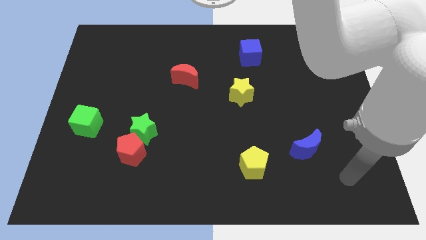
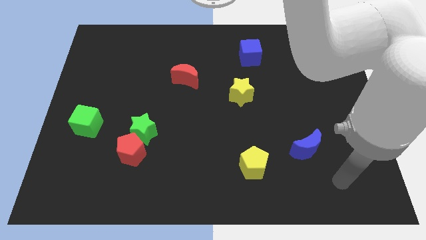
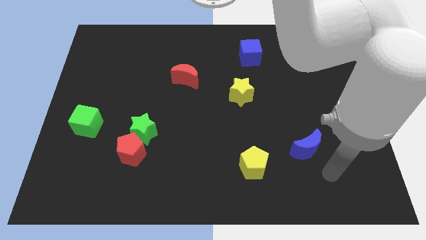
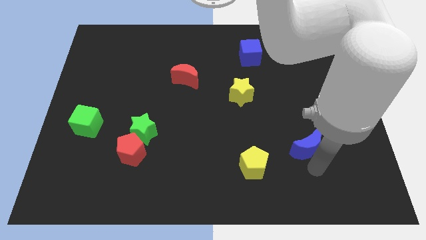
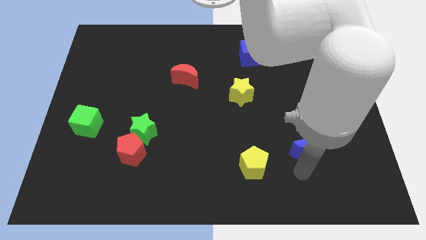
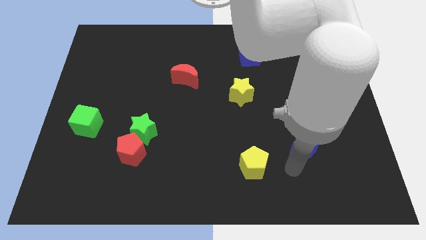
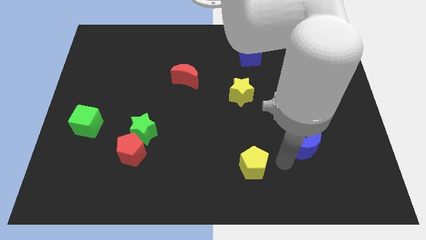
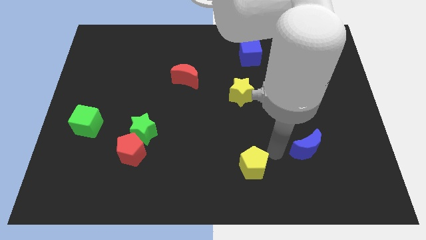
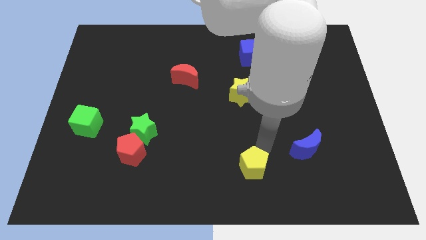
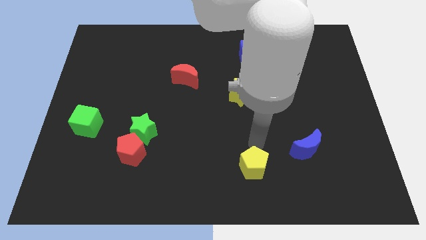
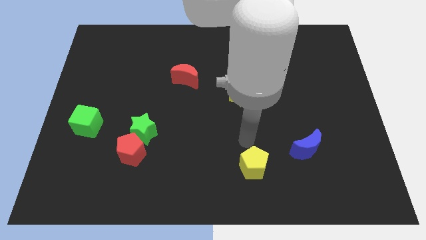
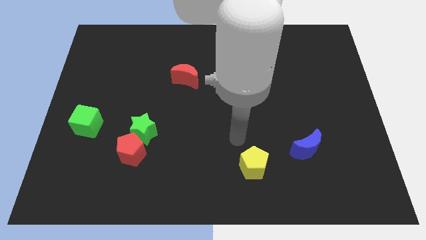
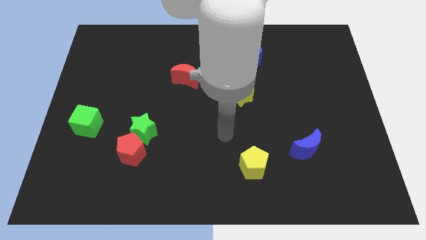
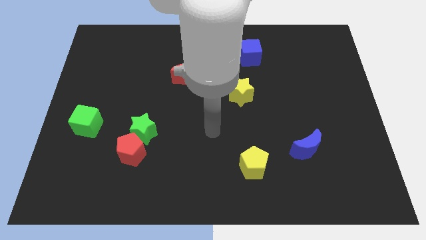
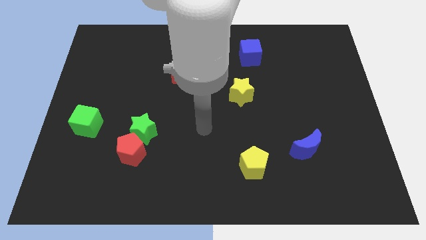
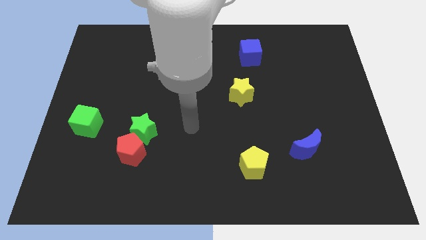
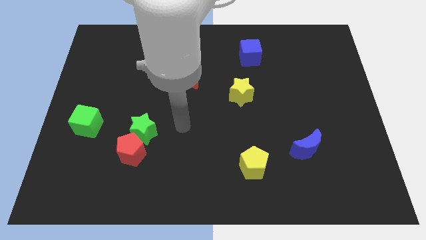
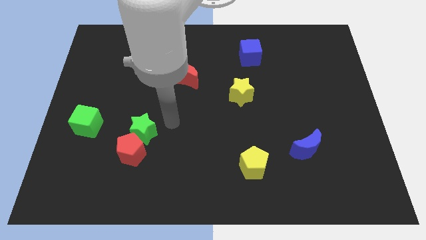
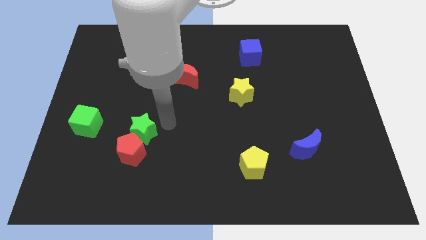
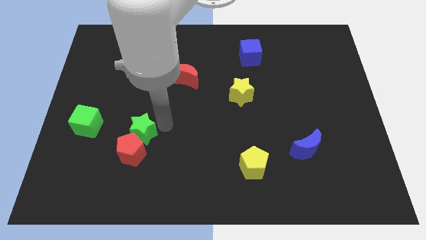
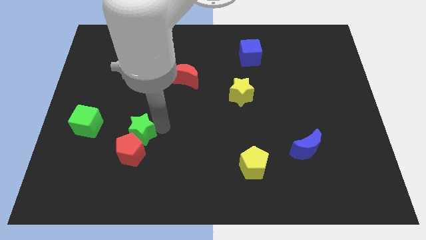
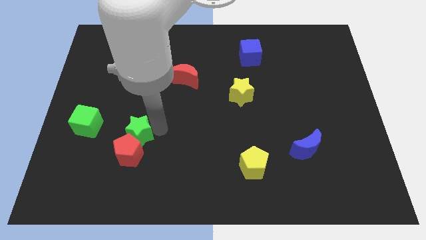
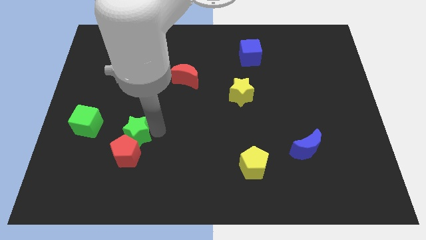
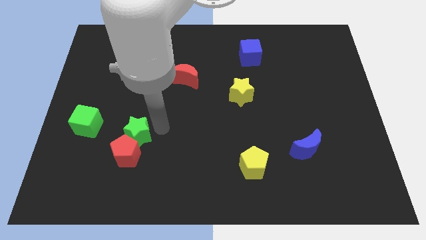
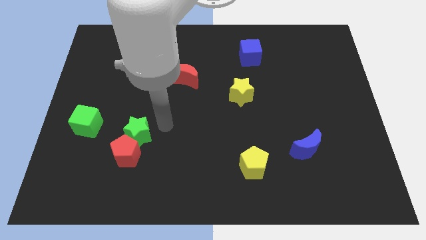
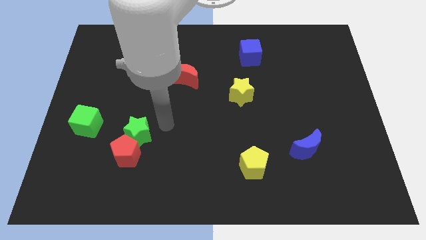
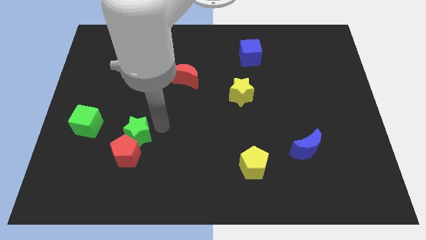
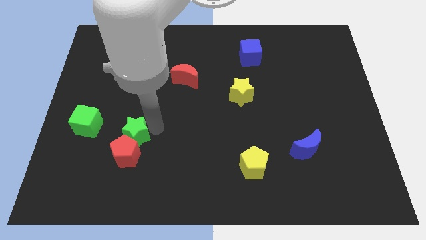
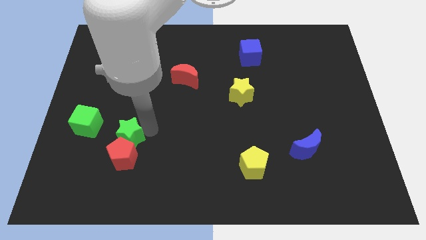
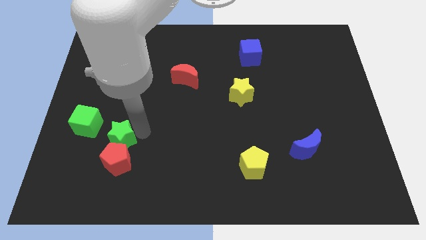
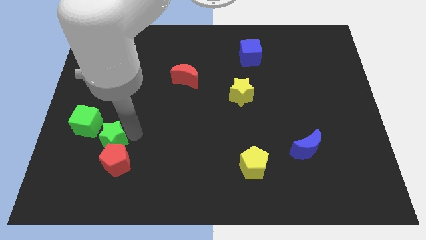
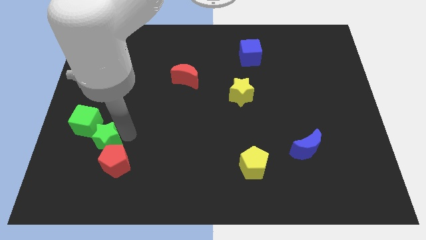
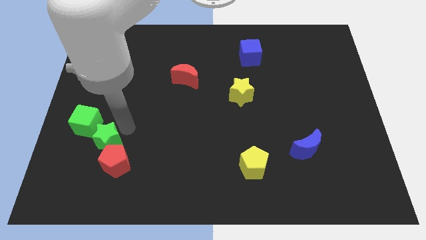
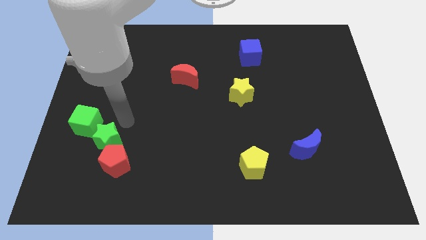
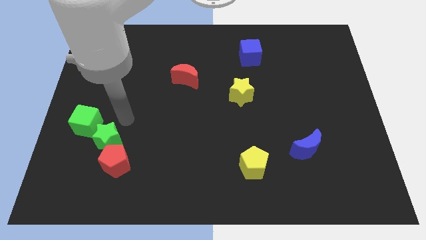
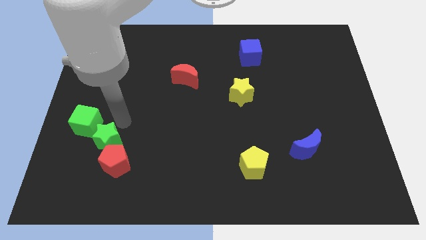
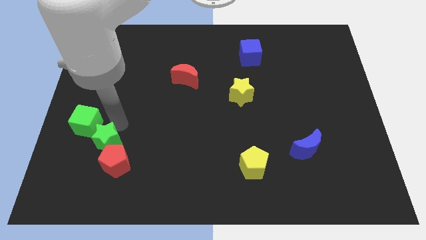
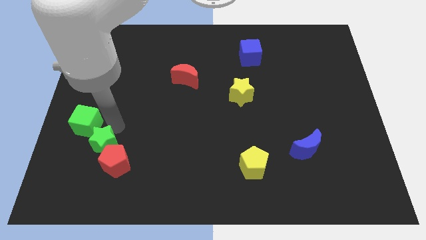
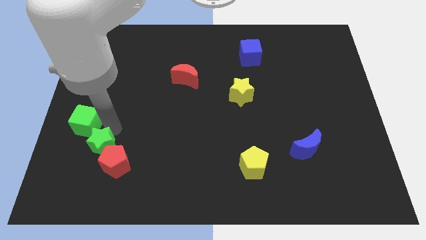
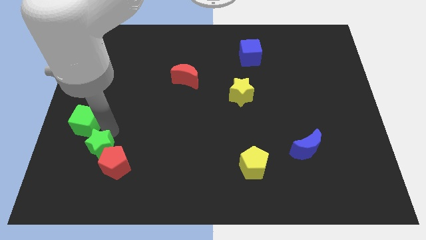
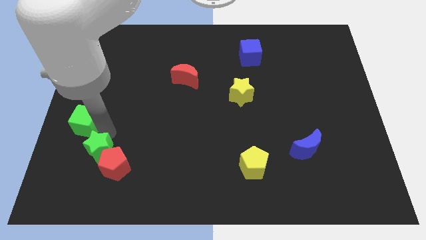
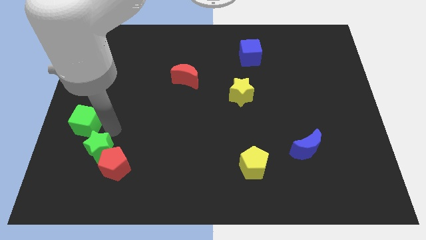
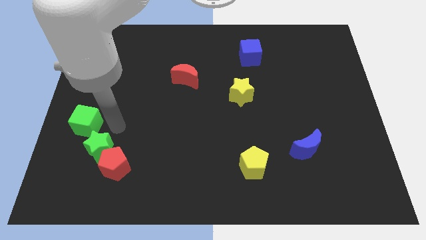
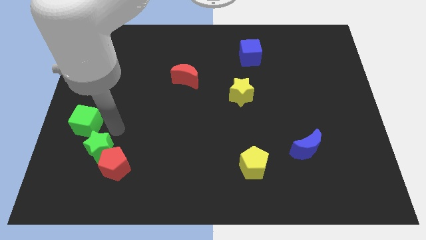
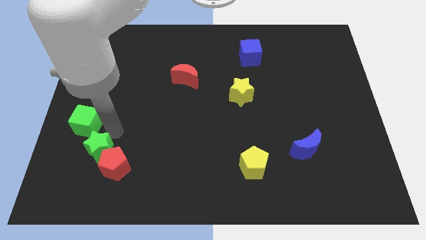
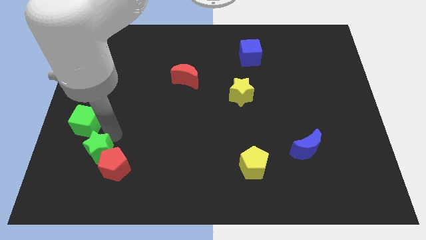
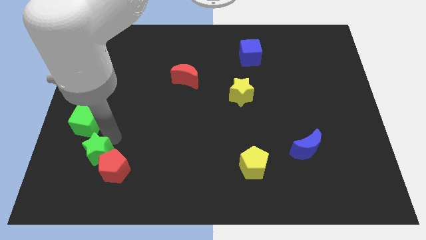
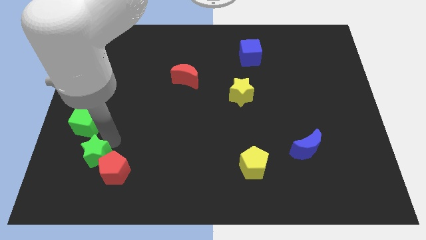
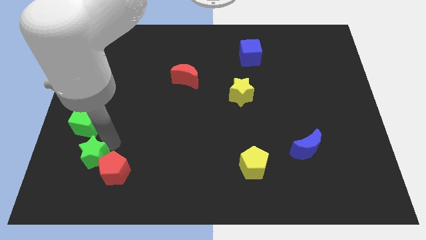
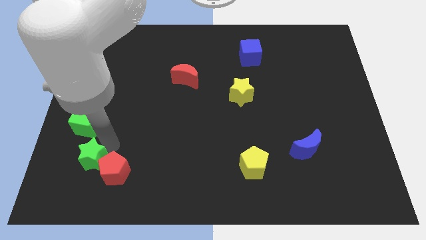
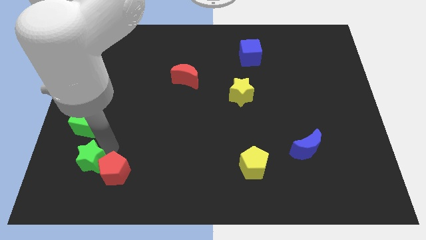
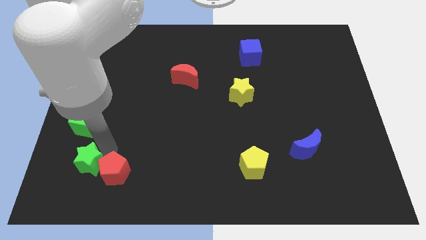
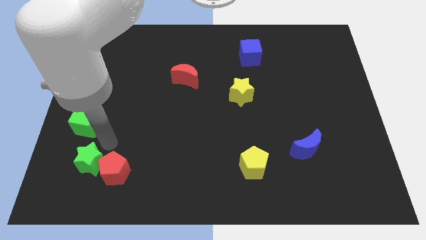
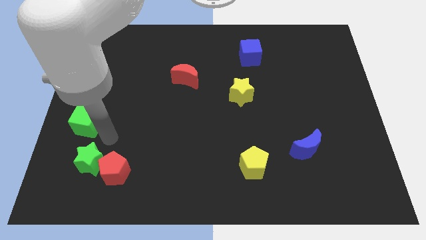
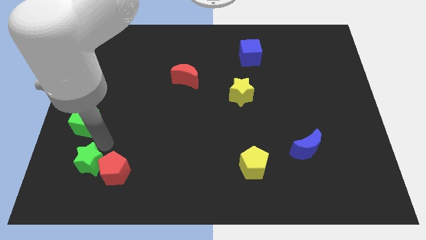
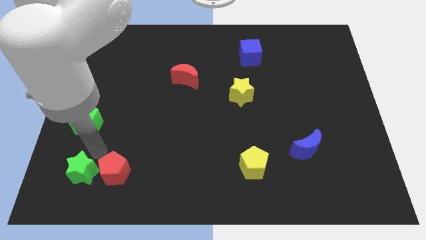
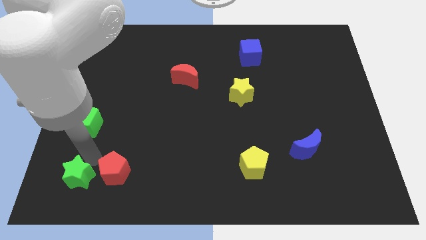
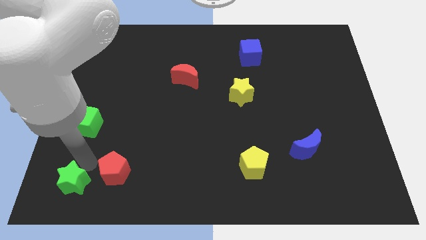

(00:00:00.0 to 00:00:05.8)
push the green star to the lower left corner

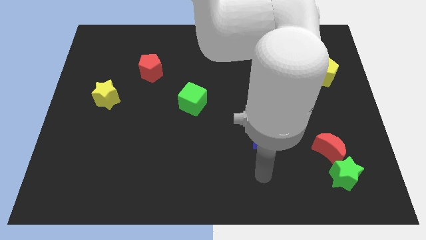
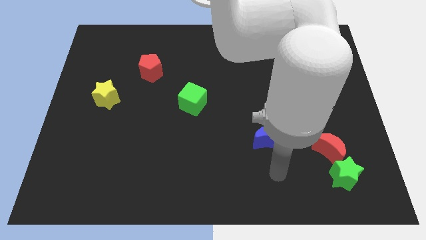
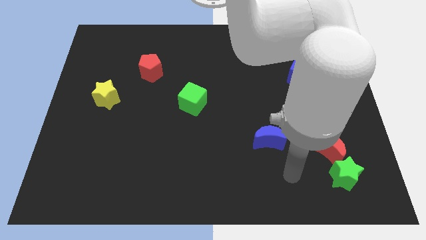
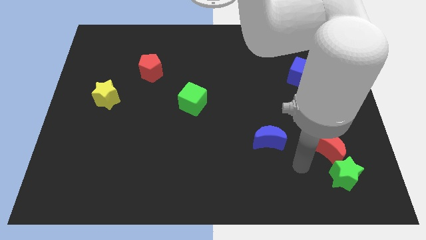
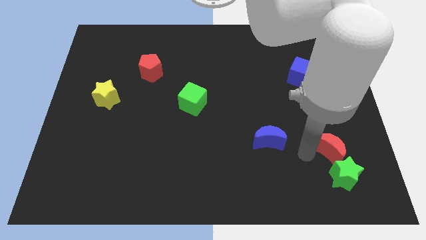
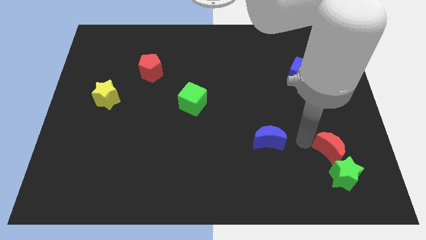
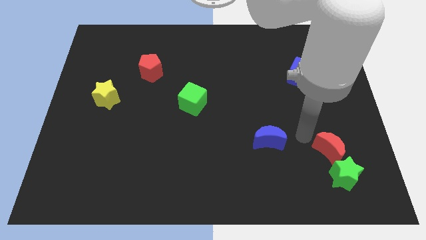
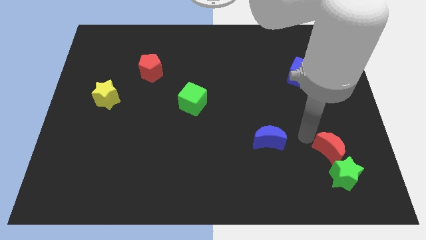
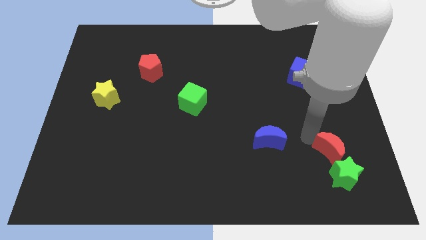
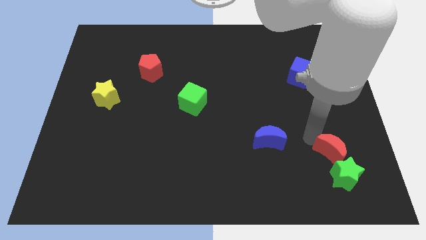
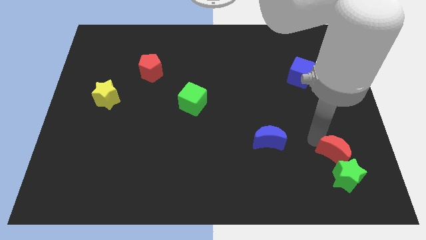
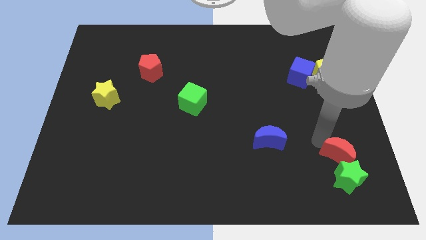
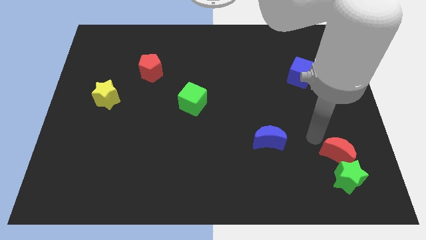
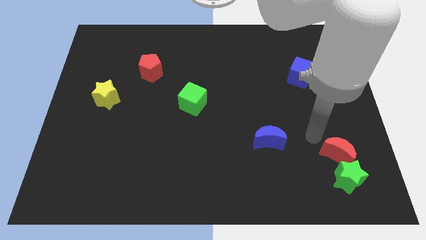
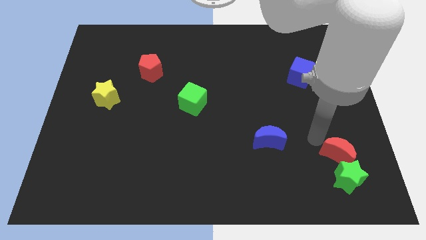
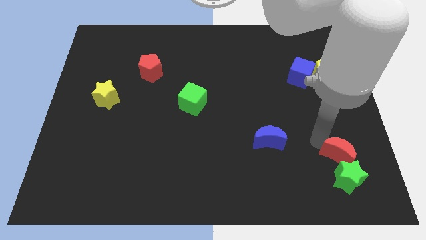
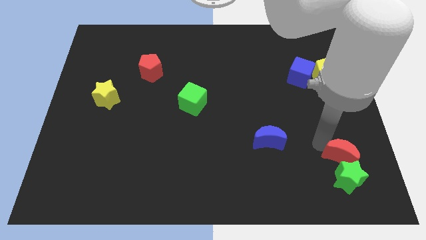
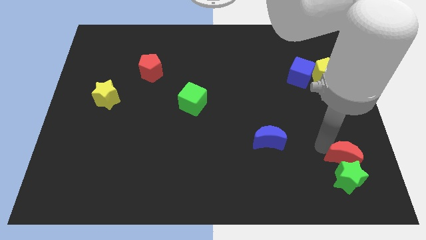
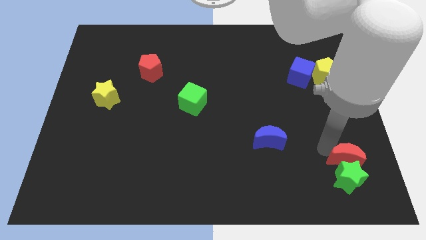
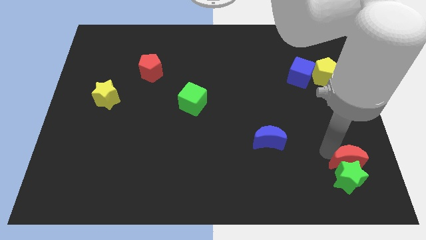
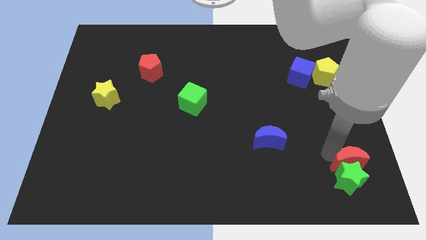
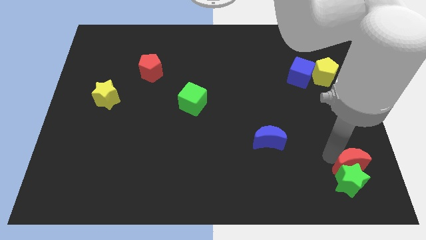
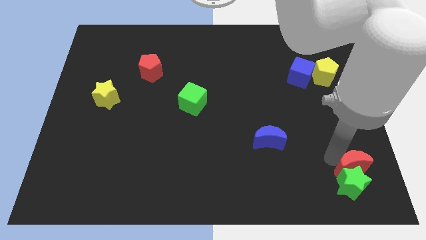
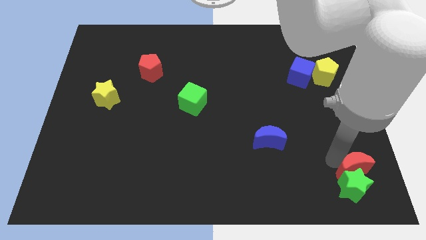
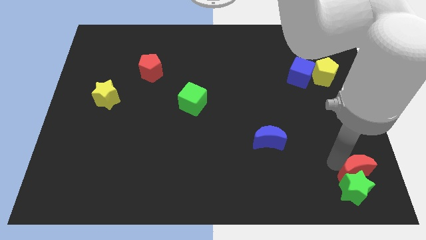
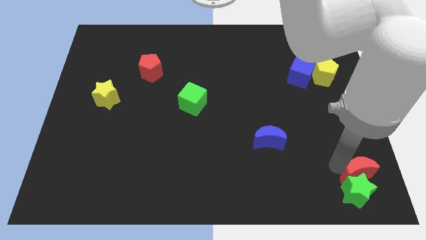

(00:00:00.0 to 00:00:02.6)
put the red moon to the bottom right corner
